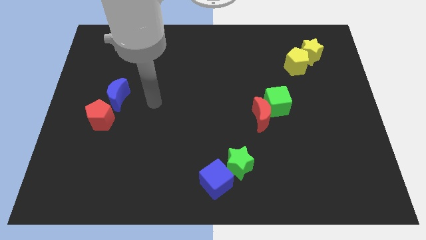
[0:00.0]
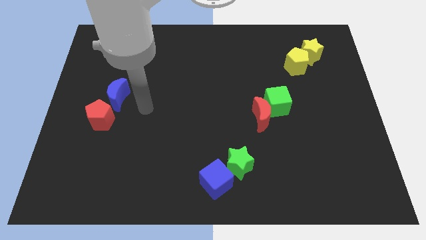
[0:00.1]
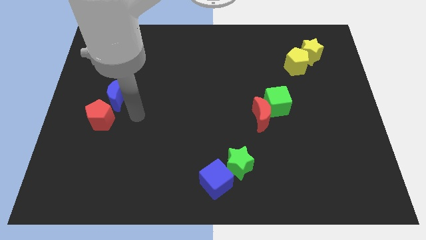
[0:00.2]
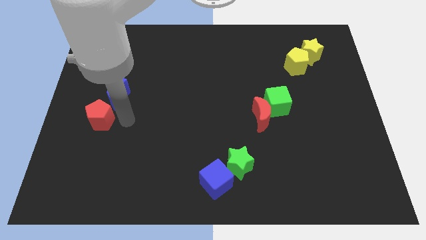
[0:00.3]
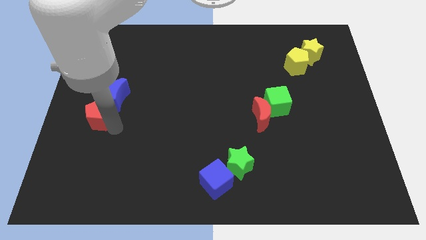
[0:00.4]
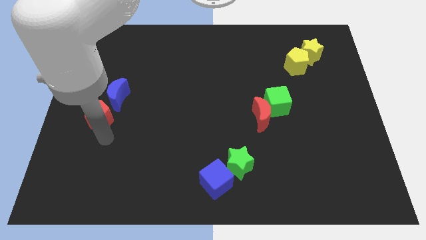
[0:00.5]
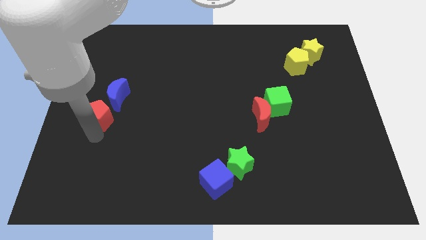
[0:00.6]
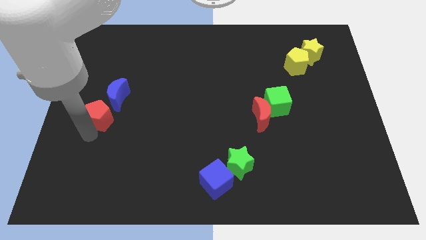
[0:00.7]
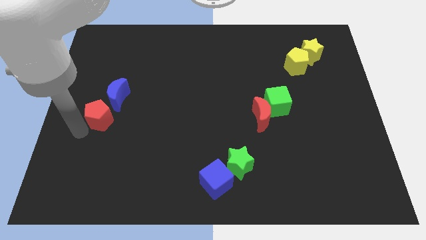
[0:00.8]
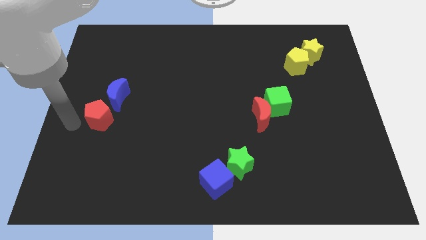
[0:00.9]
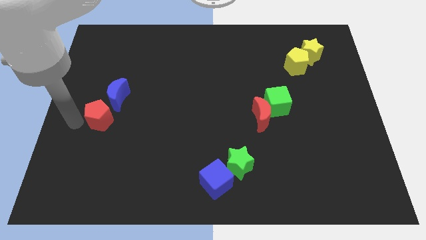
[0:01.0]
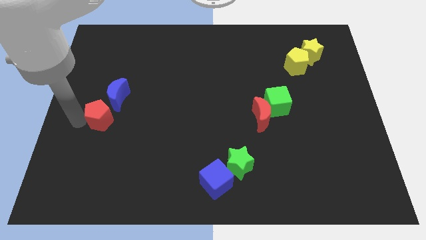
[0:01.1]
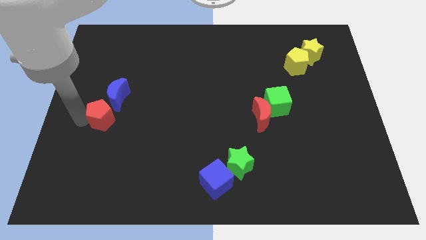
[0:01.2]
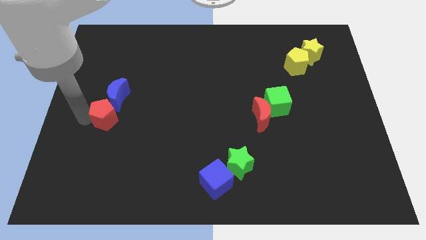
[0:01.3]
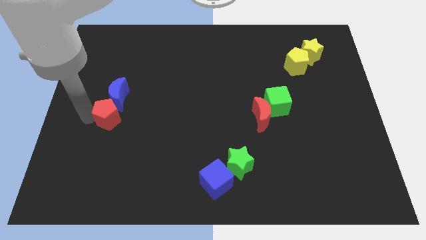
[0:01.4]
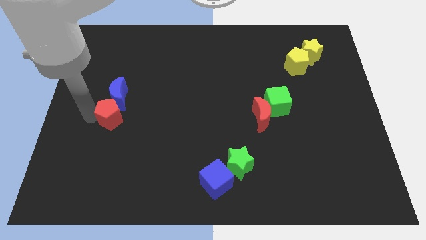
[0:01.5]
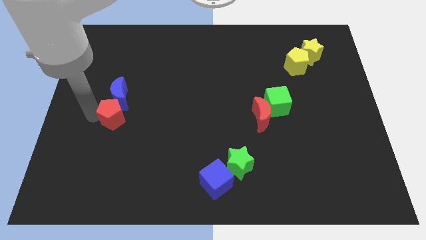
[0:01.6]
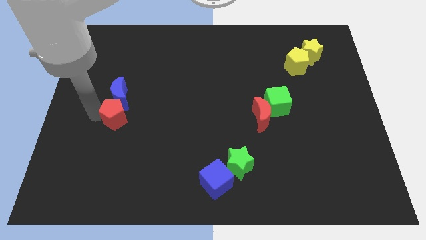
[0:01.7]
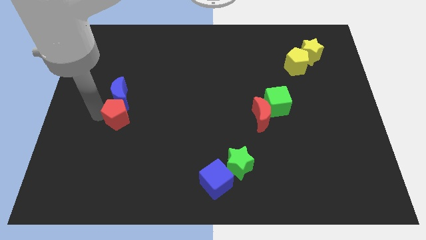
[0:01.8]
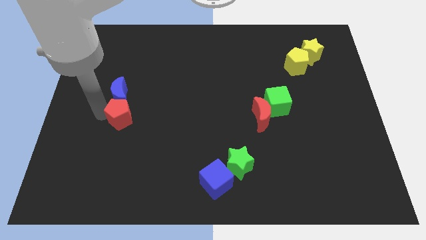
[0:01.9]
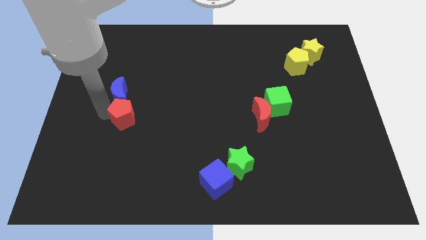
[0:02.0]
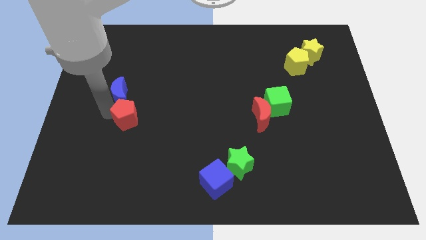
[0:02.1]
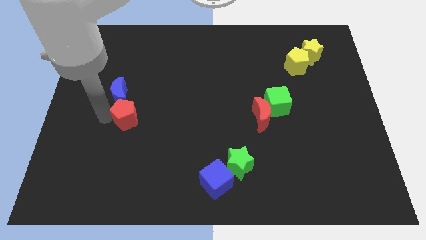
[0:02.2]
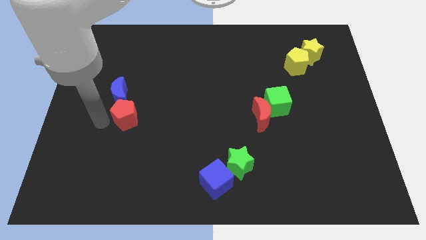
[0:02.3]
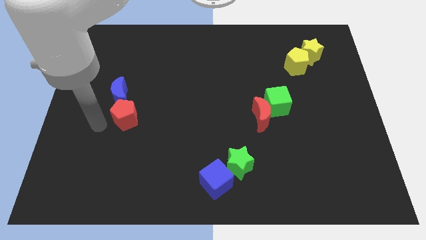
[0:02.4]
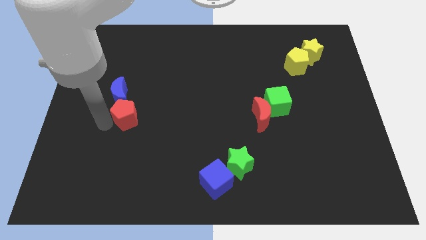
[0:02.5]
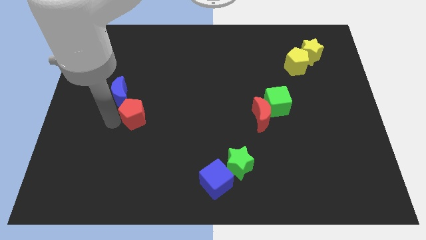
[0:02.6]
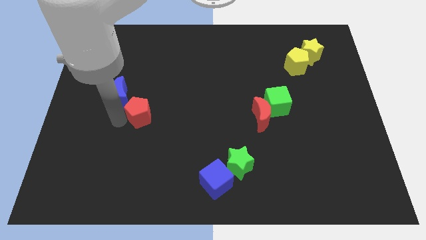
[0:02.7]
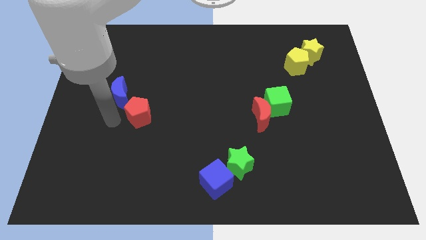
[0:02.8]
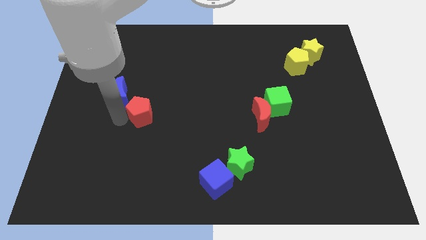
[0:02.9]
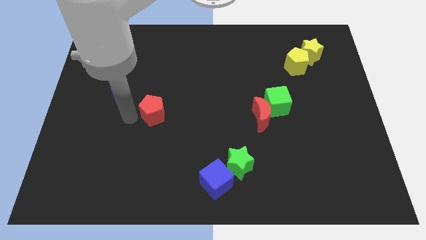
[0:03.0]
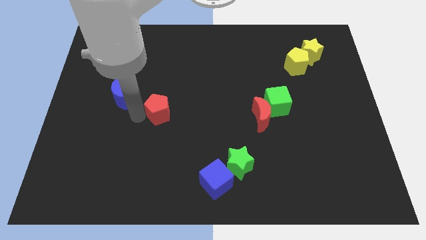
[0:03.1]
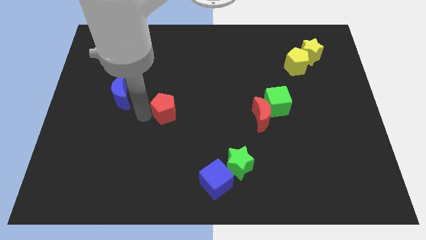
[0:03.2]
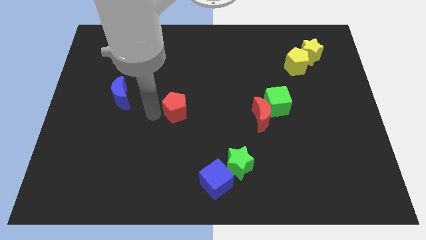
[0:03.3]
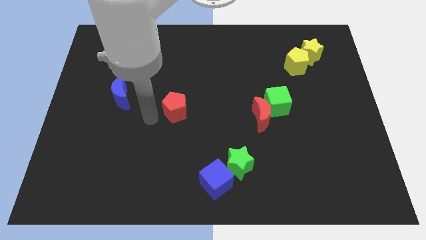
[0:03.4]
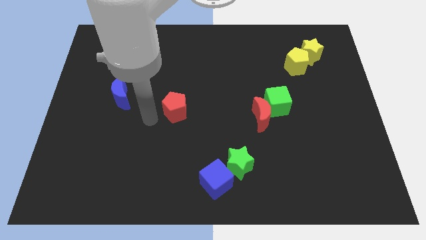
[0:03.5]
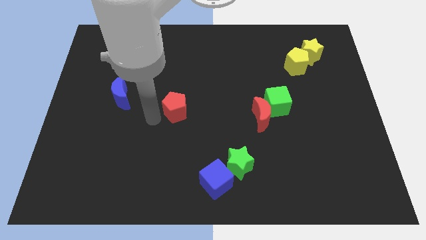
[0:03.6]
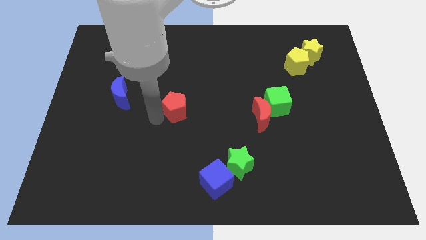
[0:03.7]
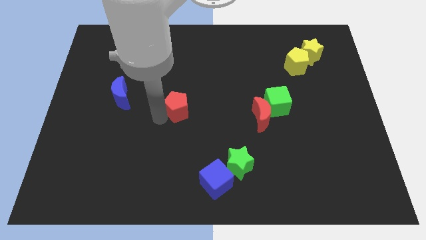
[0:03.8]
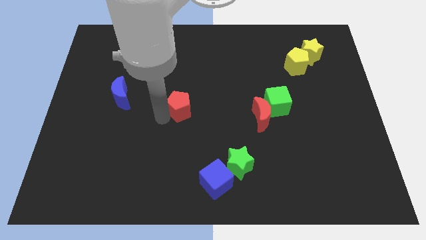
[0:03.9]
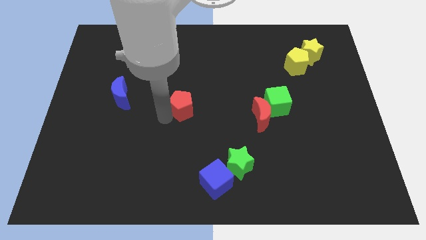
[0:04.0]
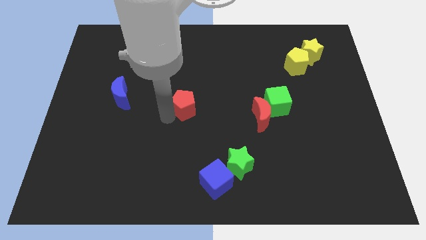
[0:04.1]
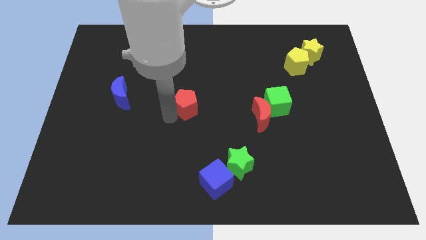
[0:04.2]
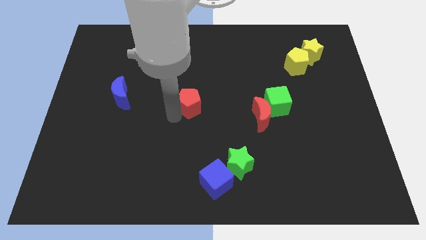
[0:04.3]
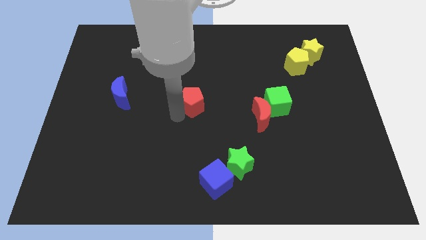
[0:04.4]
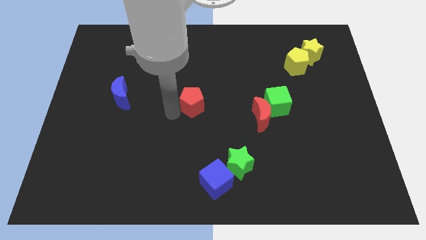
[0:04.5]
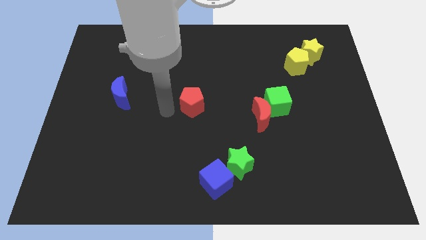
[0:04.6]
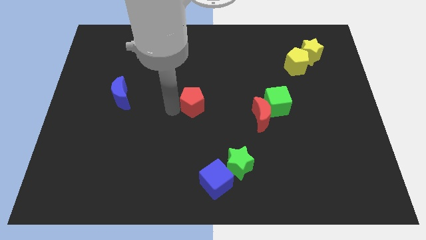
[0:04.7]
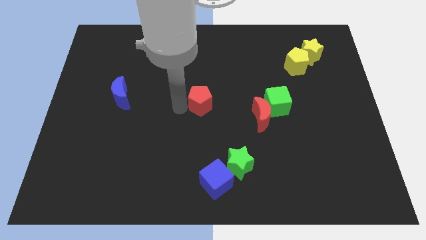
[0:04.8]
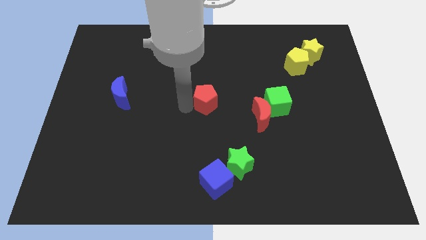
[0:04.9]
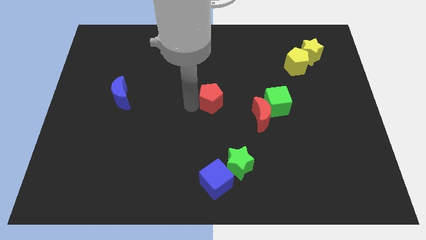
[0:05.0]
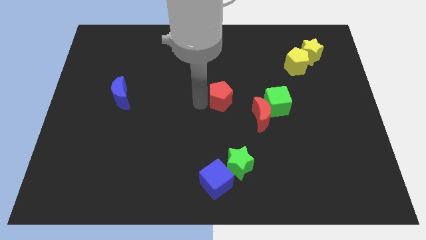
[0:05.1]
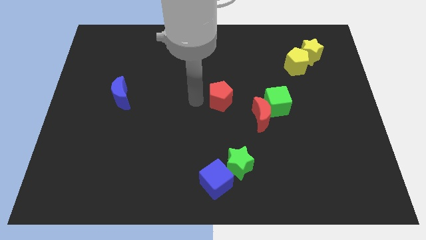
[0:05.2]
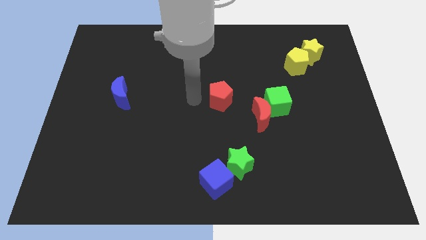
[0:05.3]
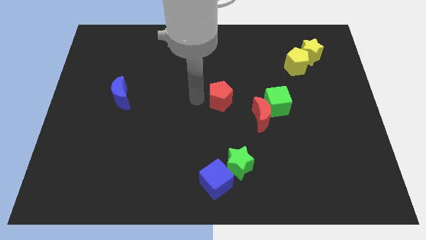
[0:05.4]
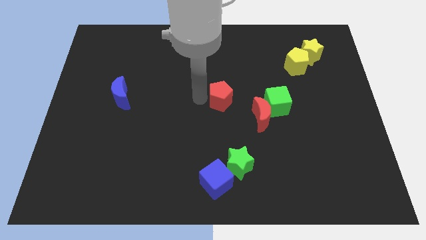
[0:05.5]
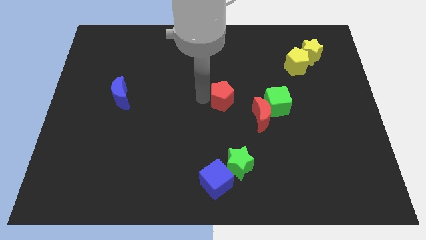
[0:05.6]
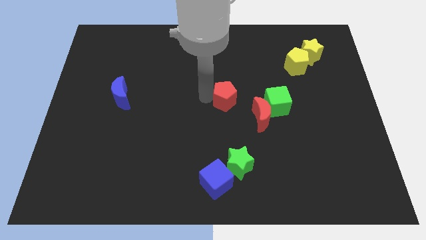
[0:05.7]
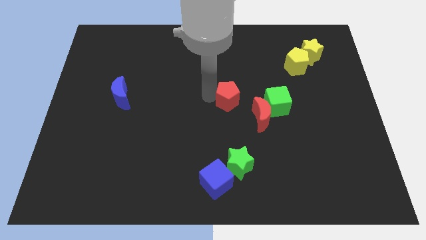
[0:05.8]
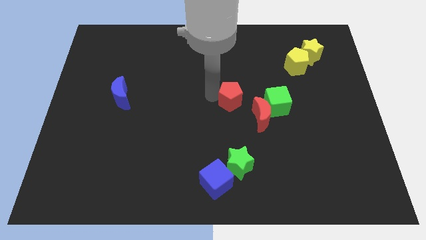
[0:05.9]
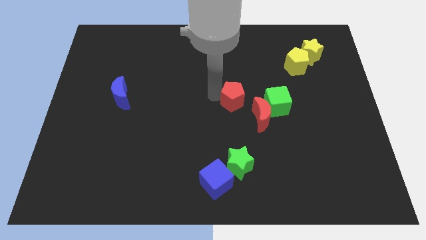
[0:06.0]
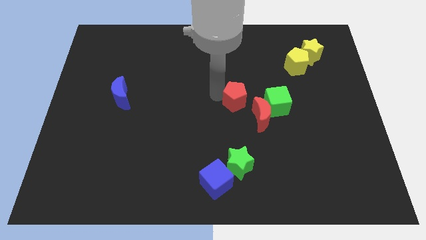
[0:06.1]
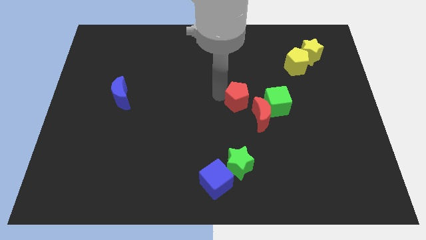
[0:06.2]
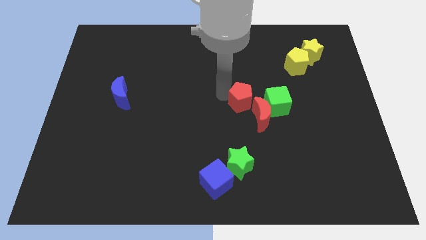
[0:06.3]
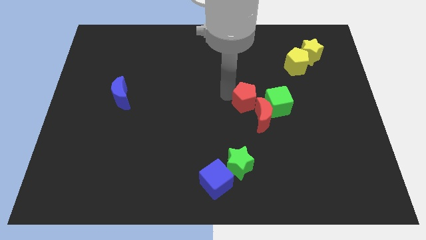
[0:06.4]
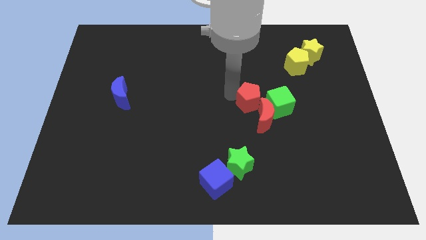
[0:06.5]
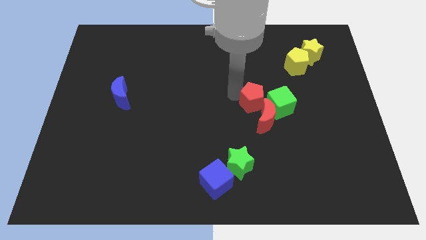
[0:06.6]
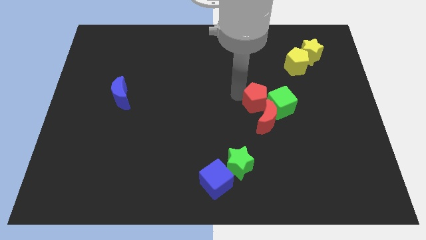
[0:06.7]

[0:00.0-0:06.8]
put the red pentagon next to the green cube
